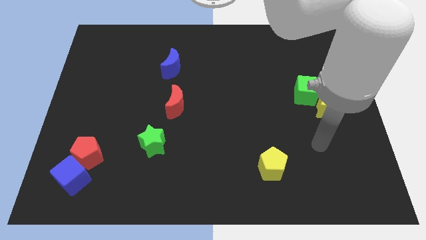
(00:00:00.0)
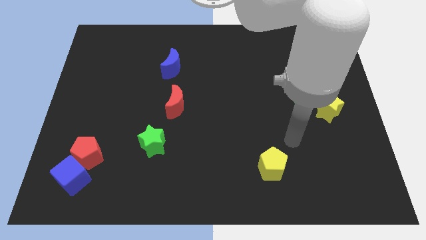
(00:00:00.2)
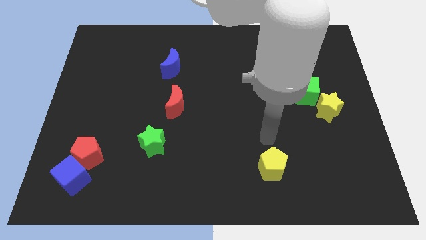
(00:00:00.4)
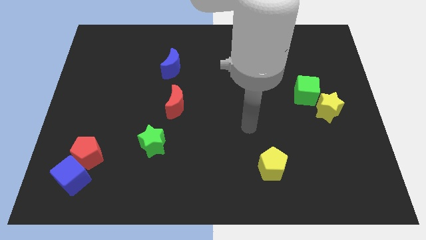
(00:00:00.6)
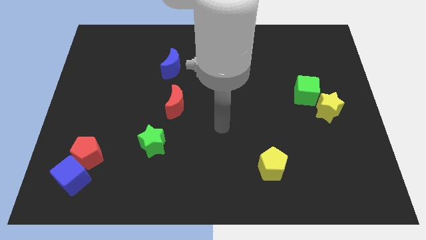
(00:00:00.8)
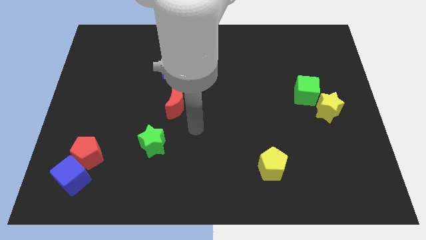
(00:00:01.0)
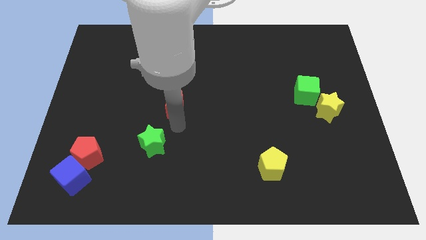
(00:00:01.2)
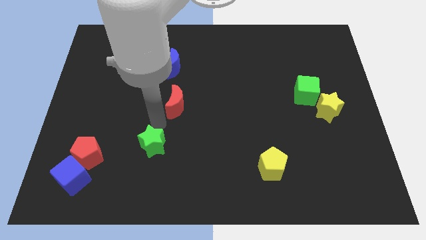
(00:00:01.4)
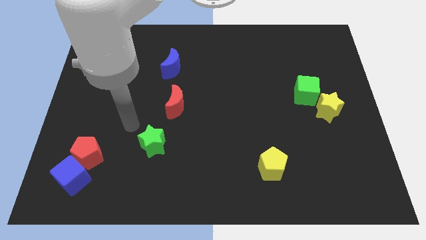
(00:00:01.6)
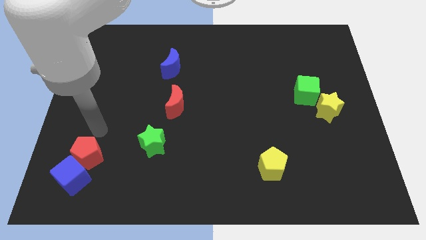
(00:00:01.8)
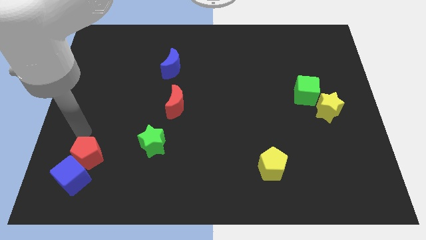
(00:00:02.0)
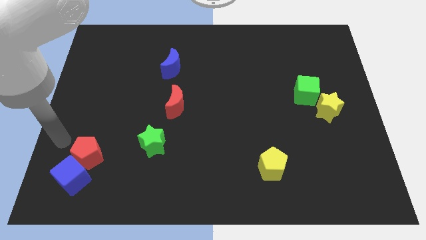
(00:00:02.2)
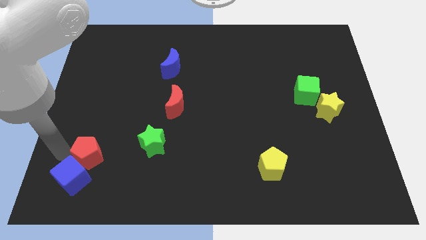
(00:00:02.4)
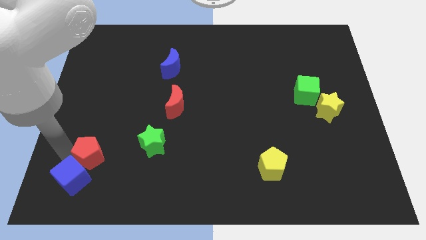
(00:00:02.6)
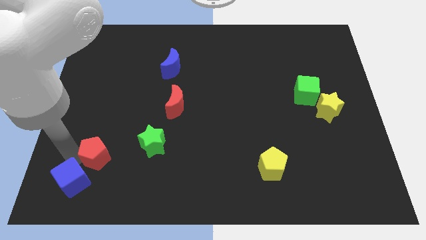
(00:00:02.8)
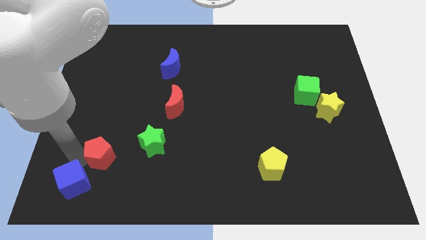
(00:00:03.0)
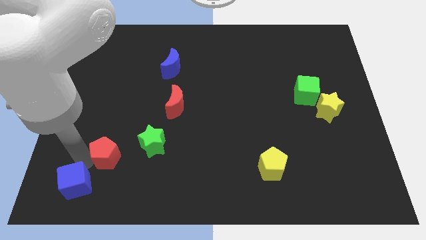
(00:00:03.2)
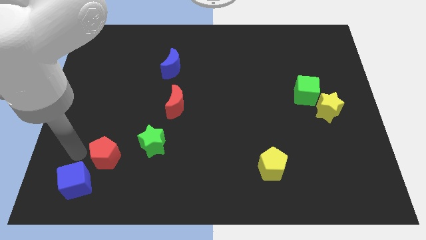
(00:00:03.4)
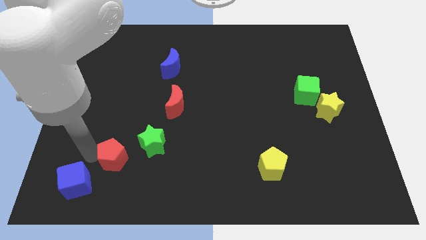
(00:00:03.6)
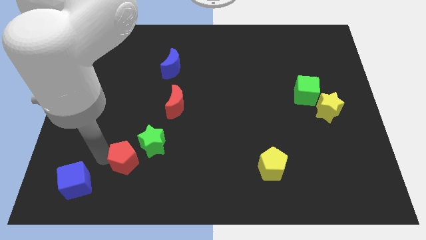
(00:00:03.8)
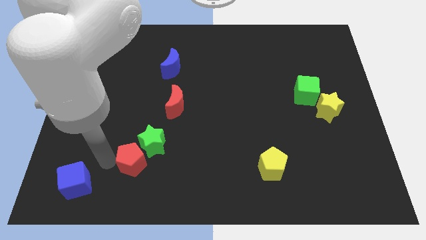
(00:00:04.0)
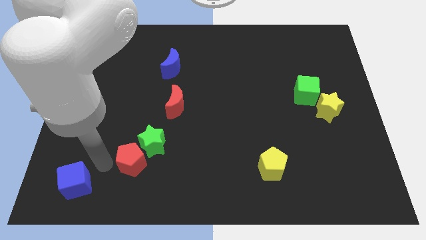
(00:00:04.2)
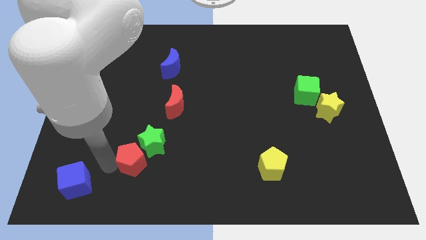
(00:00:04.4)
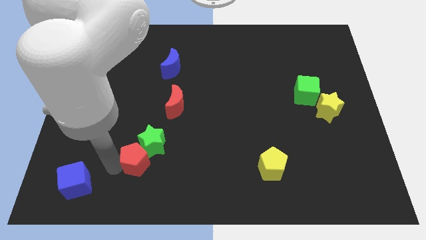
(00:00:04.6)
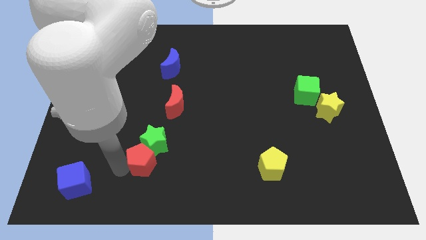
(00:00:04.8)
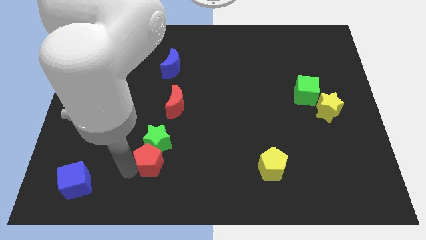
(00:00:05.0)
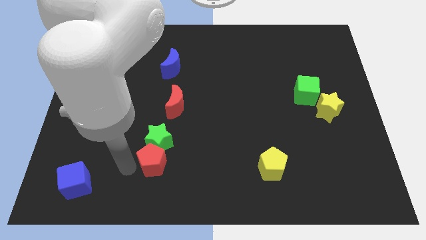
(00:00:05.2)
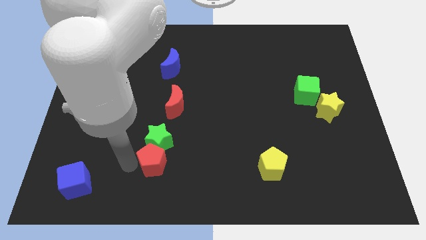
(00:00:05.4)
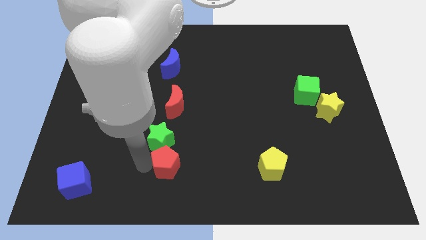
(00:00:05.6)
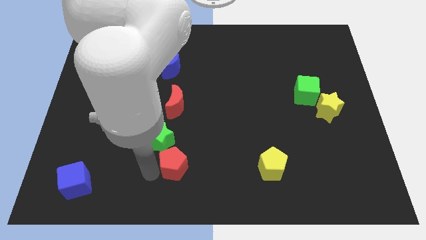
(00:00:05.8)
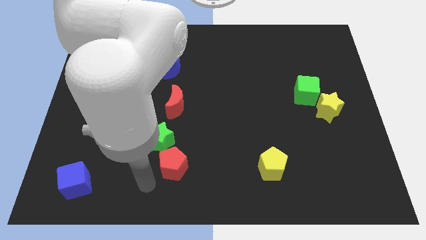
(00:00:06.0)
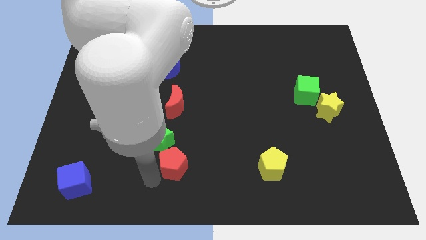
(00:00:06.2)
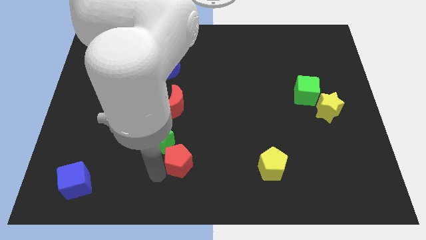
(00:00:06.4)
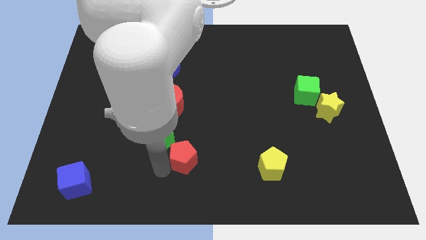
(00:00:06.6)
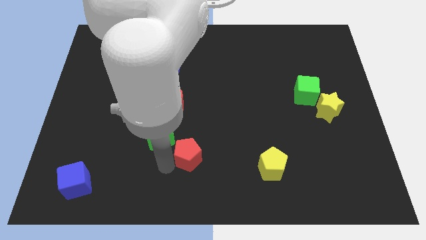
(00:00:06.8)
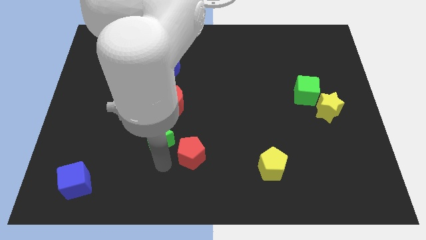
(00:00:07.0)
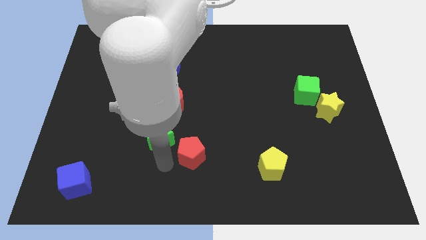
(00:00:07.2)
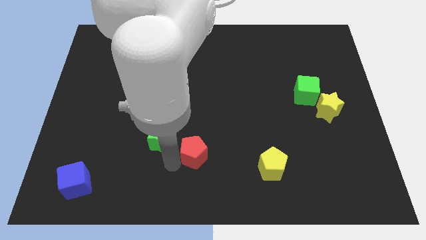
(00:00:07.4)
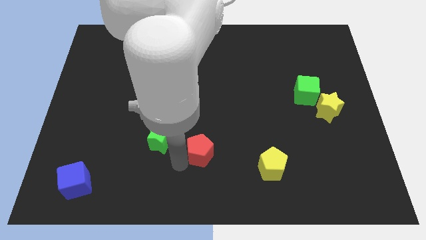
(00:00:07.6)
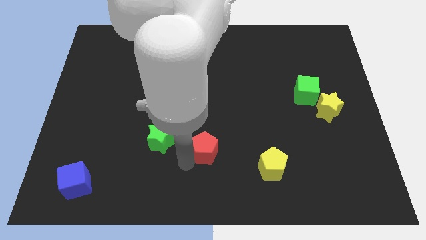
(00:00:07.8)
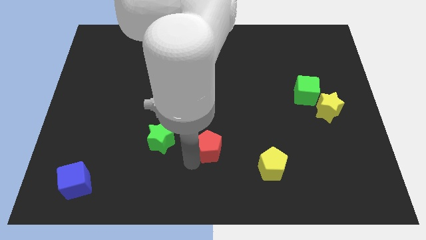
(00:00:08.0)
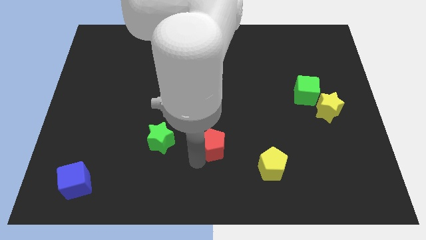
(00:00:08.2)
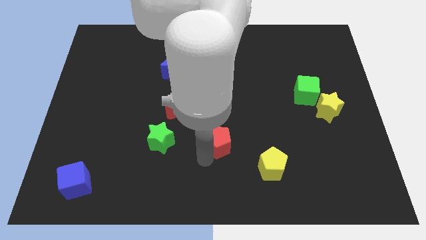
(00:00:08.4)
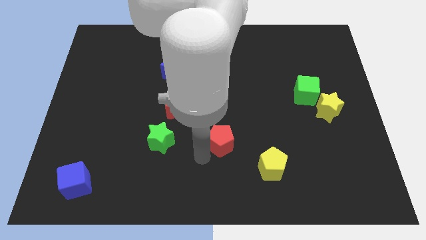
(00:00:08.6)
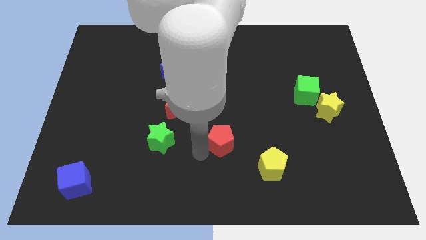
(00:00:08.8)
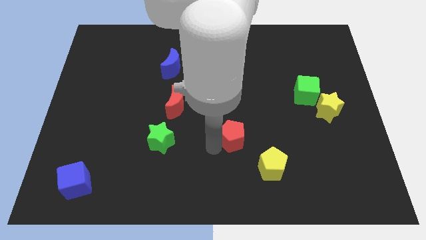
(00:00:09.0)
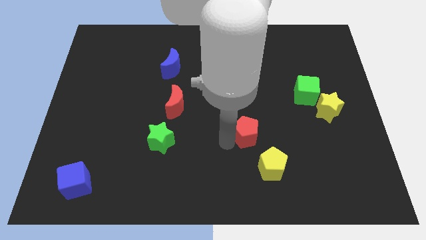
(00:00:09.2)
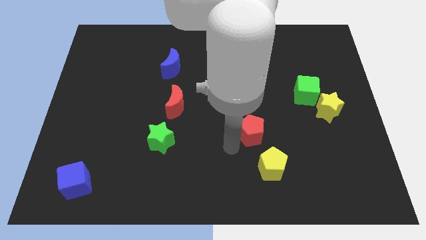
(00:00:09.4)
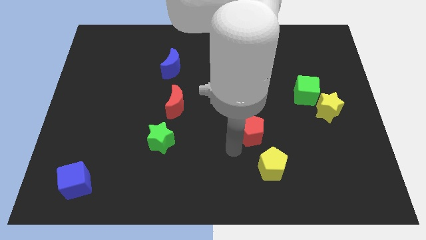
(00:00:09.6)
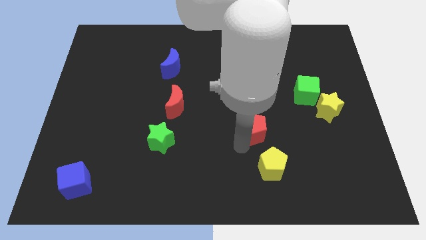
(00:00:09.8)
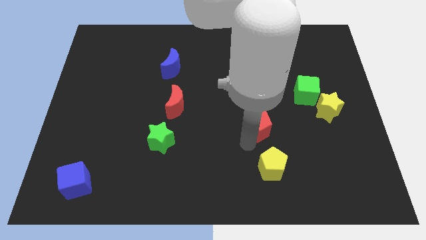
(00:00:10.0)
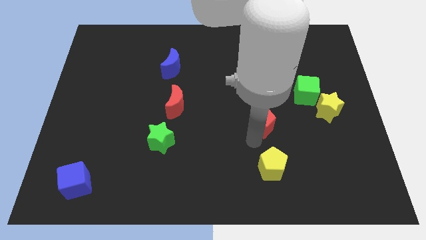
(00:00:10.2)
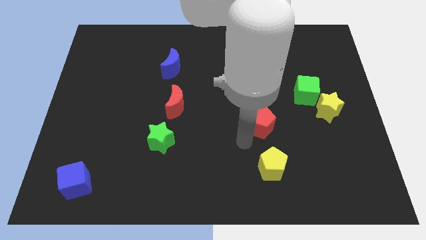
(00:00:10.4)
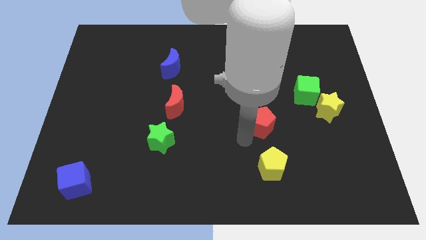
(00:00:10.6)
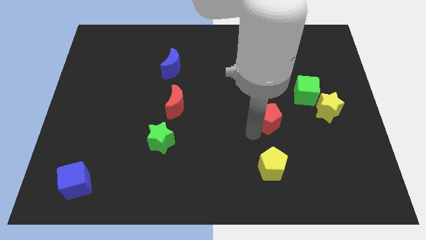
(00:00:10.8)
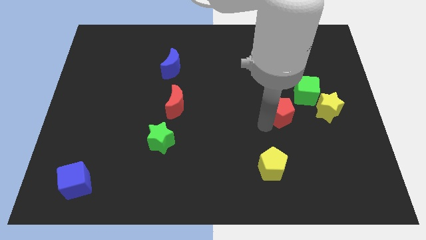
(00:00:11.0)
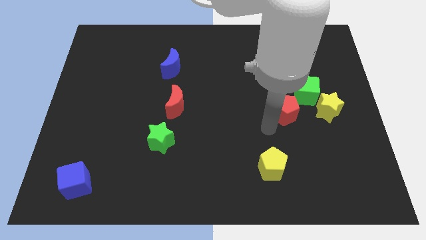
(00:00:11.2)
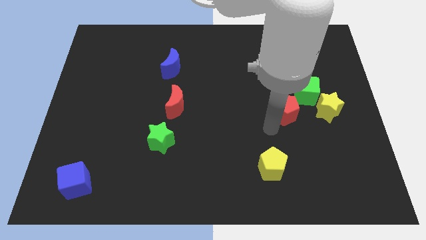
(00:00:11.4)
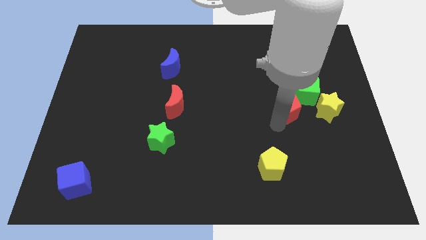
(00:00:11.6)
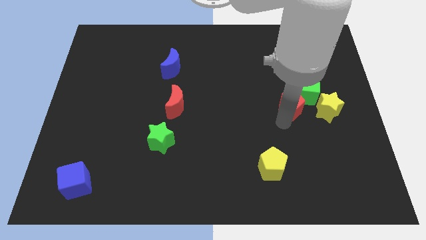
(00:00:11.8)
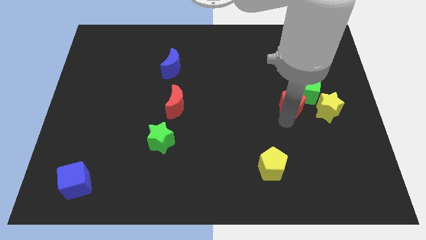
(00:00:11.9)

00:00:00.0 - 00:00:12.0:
move the red pentagon next to the green cube

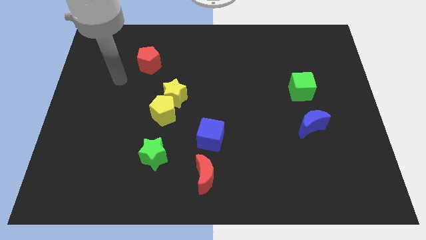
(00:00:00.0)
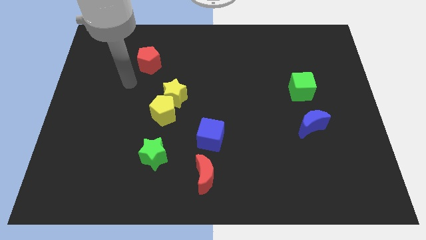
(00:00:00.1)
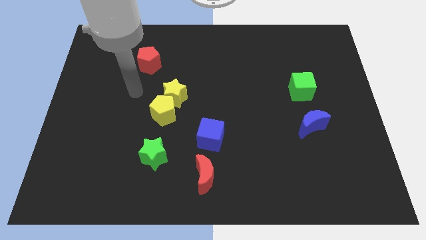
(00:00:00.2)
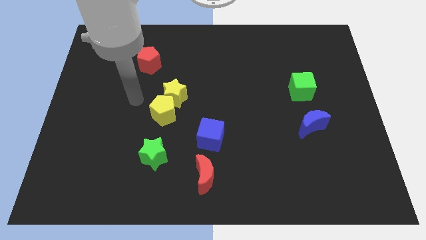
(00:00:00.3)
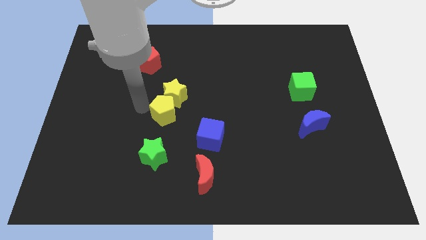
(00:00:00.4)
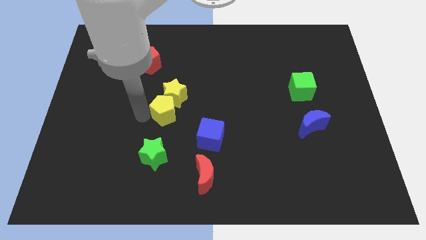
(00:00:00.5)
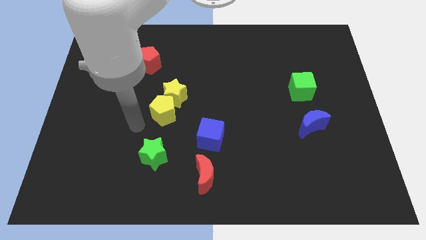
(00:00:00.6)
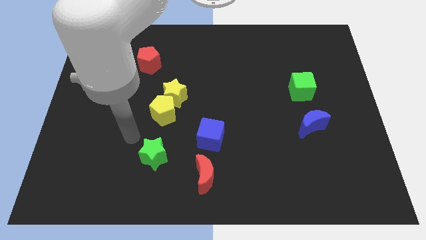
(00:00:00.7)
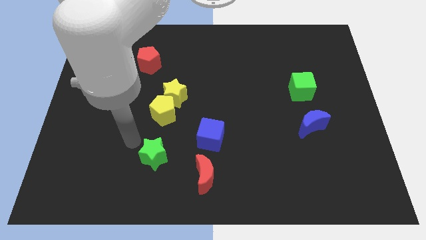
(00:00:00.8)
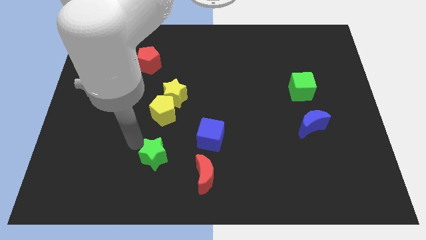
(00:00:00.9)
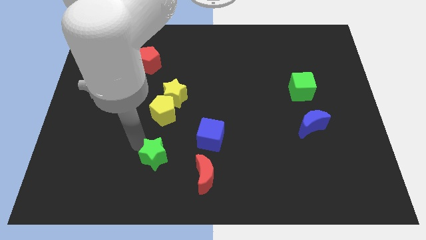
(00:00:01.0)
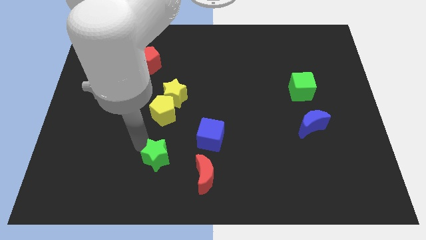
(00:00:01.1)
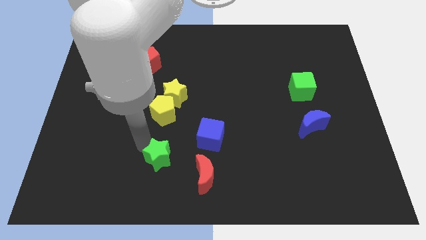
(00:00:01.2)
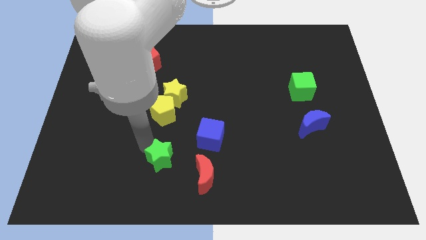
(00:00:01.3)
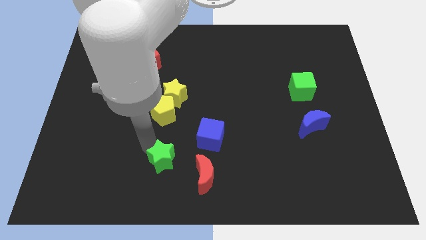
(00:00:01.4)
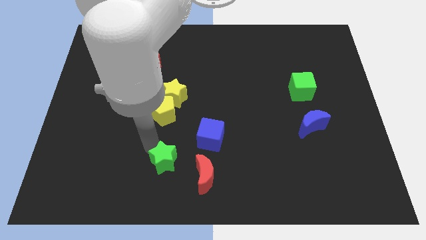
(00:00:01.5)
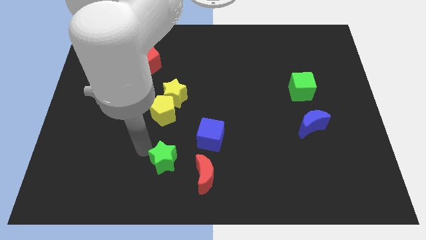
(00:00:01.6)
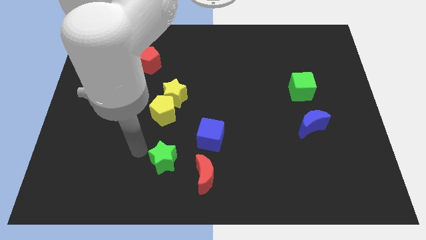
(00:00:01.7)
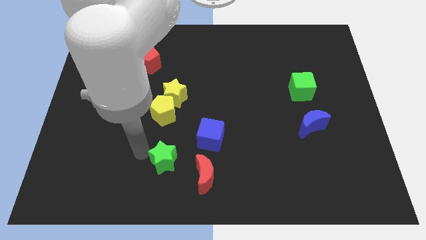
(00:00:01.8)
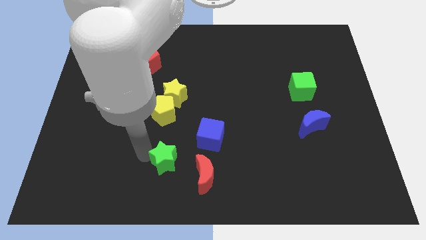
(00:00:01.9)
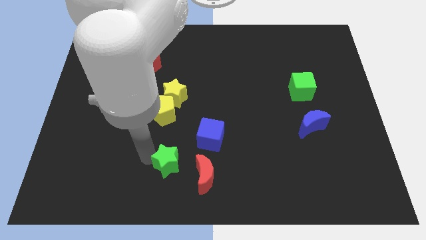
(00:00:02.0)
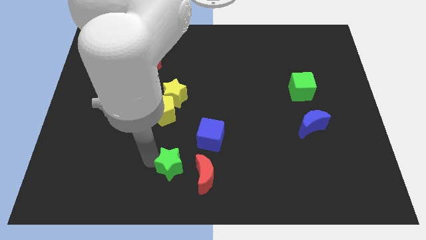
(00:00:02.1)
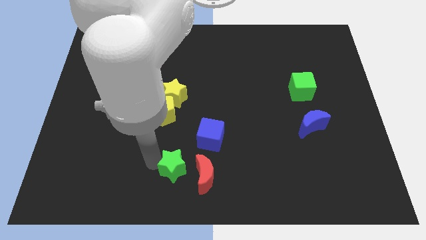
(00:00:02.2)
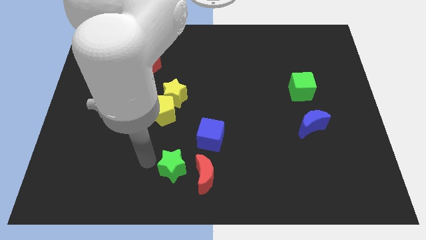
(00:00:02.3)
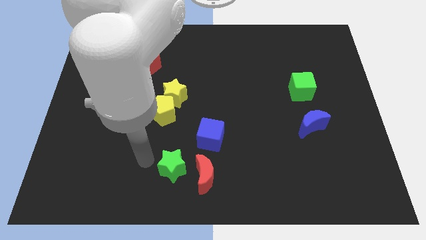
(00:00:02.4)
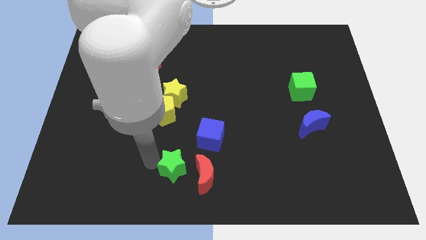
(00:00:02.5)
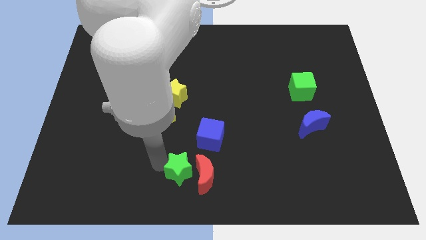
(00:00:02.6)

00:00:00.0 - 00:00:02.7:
put the green star next to the red moon
